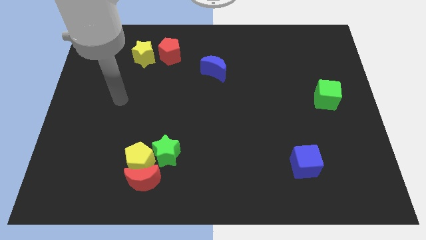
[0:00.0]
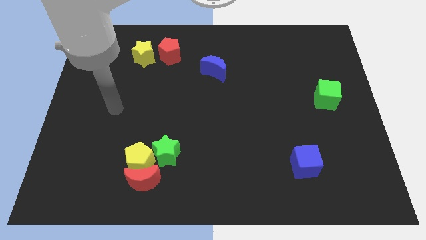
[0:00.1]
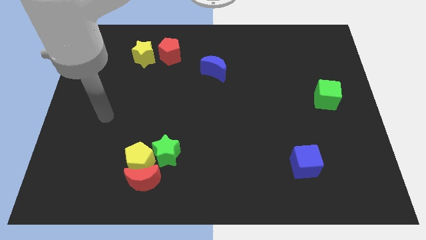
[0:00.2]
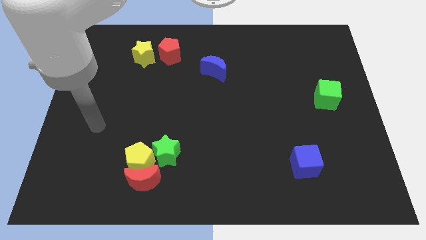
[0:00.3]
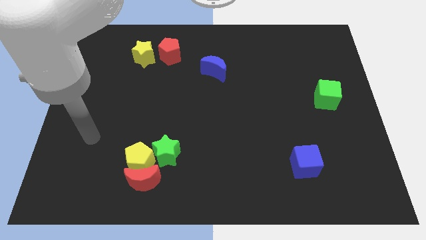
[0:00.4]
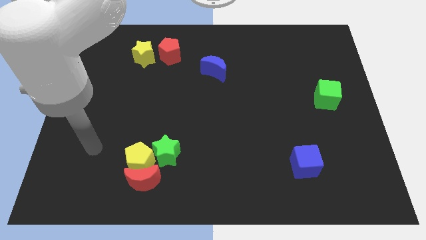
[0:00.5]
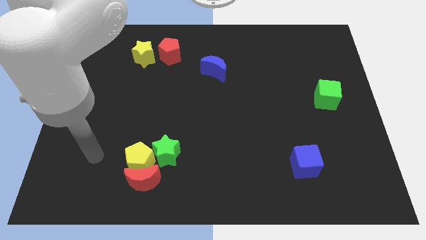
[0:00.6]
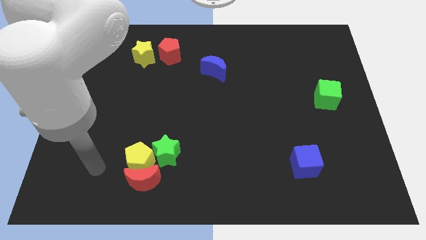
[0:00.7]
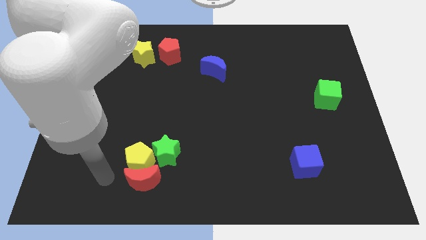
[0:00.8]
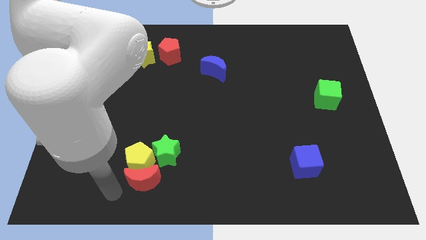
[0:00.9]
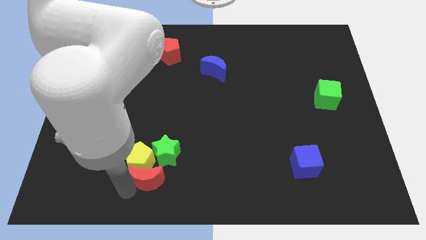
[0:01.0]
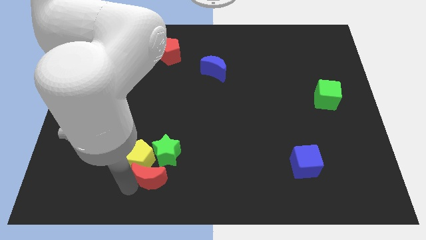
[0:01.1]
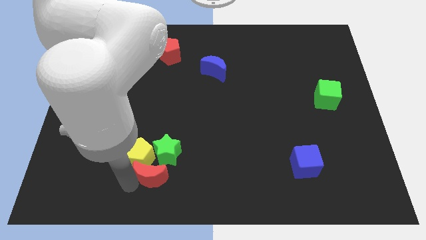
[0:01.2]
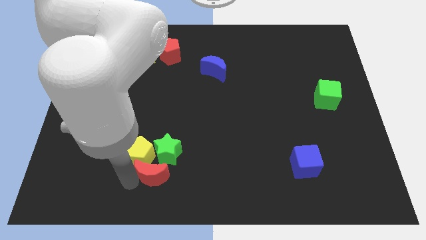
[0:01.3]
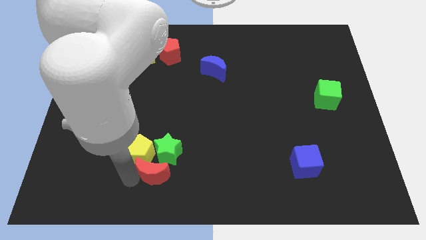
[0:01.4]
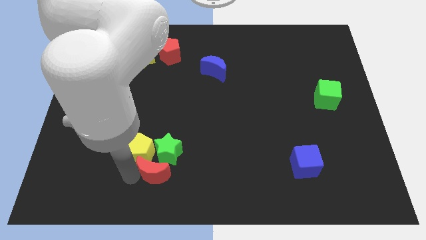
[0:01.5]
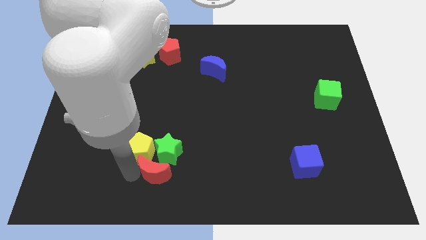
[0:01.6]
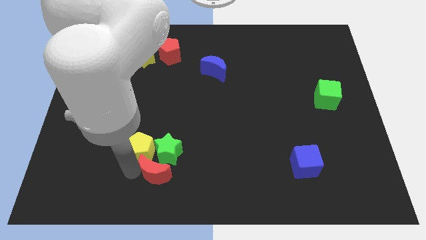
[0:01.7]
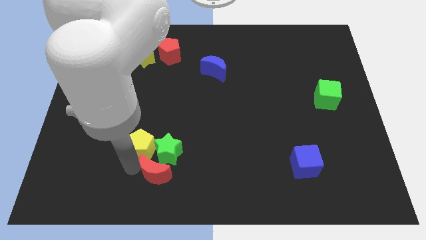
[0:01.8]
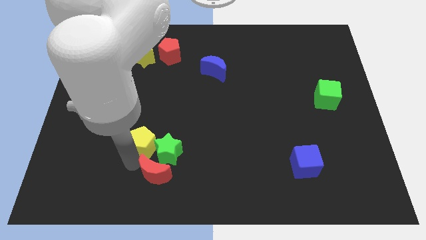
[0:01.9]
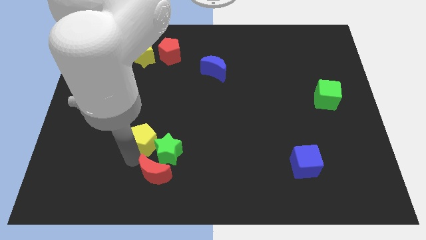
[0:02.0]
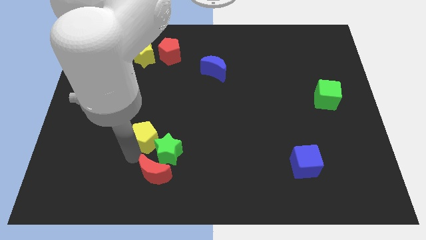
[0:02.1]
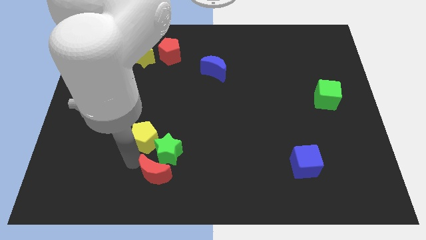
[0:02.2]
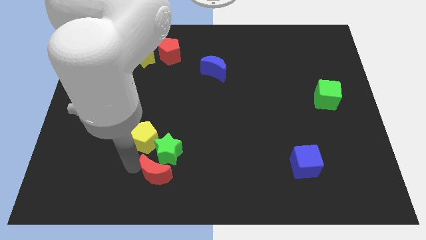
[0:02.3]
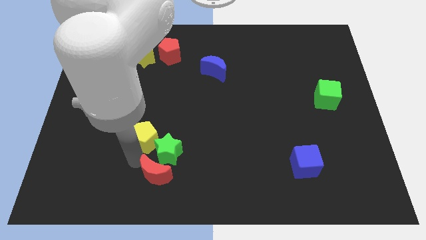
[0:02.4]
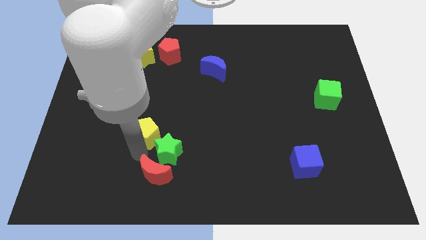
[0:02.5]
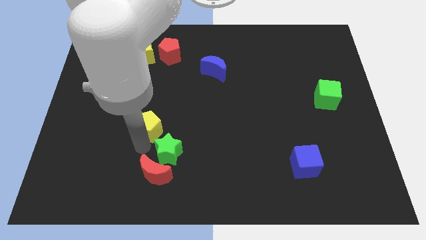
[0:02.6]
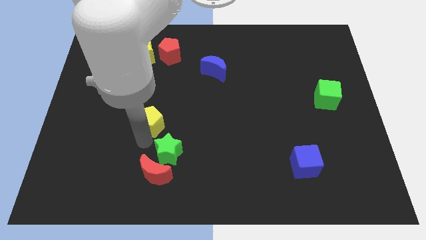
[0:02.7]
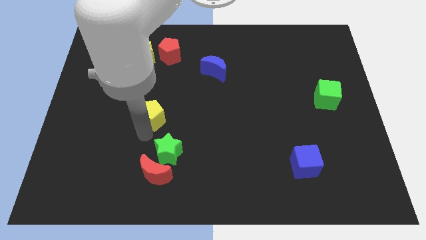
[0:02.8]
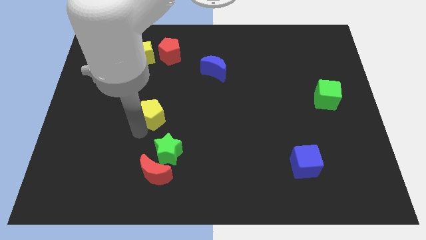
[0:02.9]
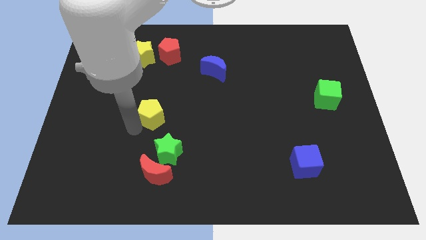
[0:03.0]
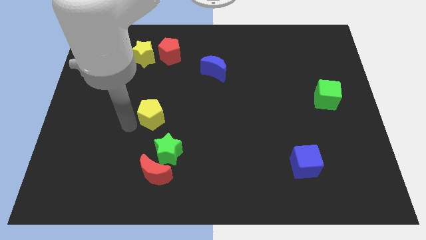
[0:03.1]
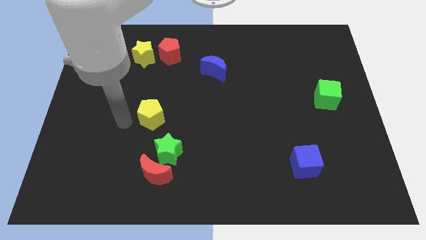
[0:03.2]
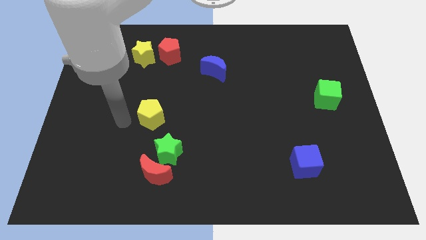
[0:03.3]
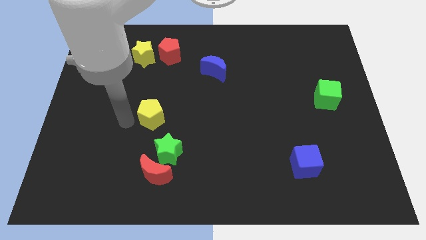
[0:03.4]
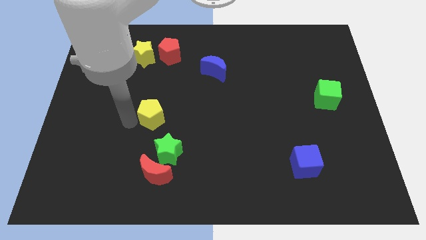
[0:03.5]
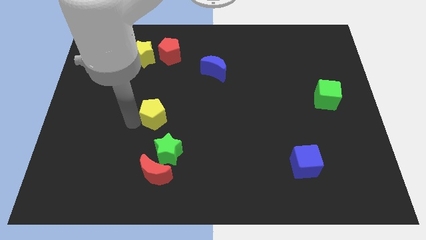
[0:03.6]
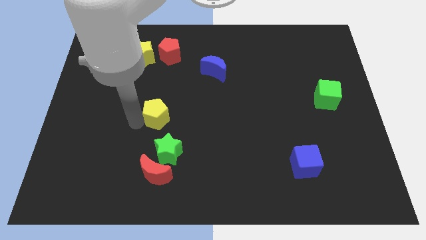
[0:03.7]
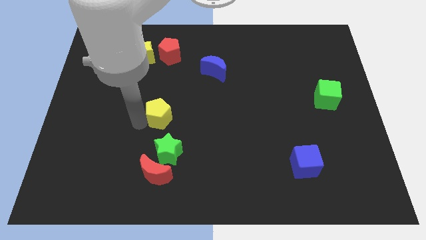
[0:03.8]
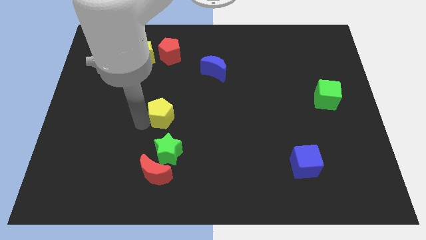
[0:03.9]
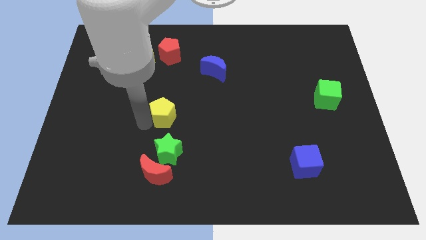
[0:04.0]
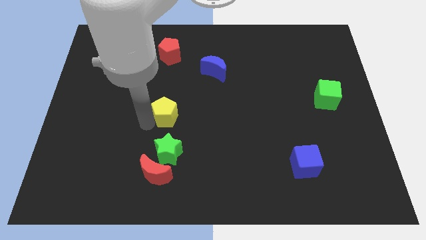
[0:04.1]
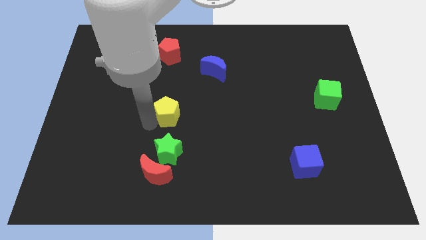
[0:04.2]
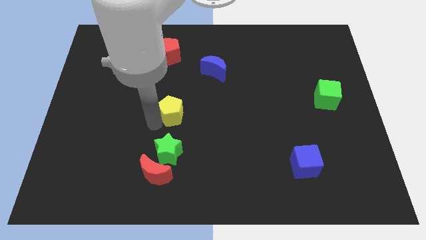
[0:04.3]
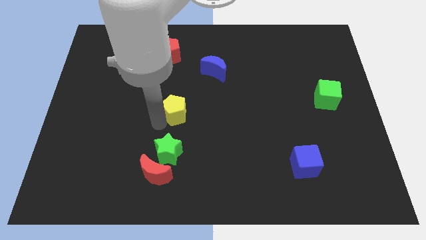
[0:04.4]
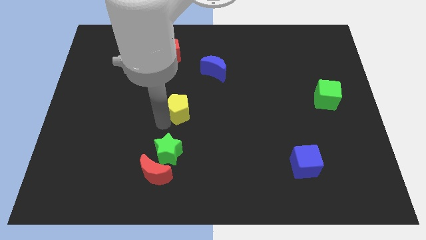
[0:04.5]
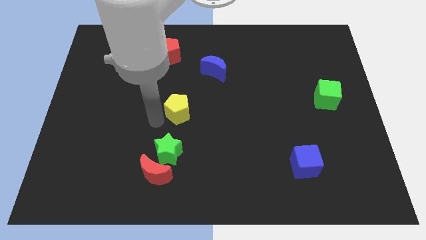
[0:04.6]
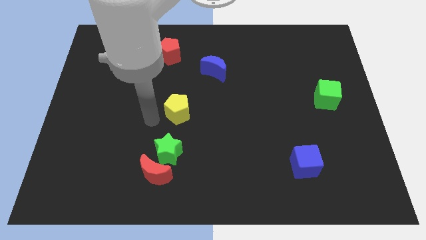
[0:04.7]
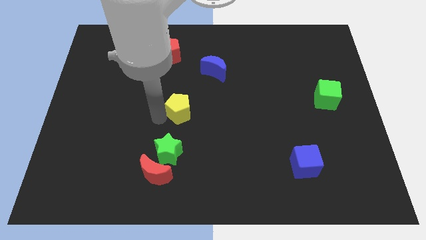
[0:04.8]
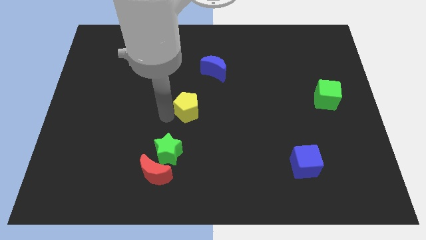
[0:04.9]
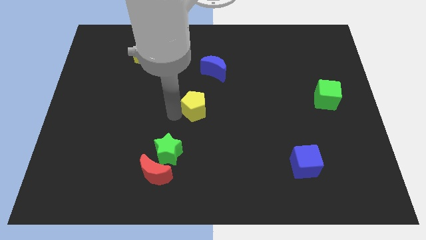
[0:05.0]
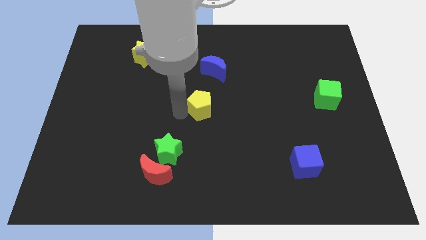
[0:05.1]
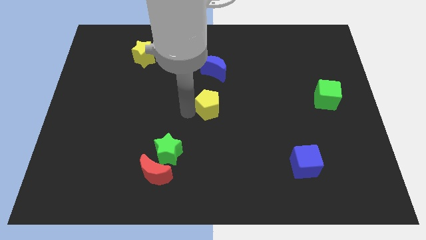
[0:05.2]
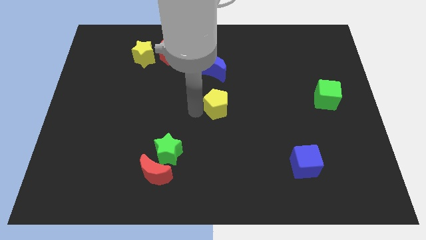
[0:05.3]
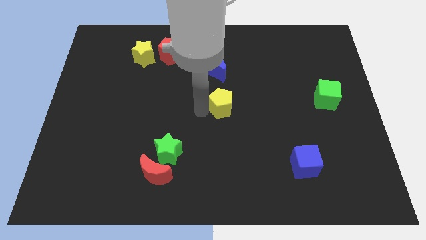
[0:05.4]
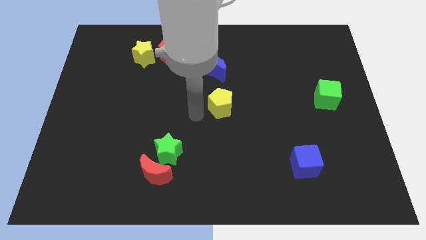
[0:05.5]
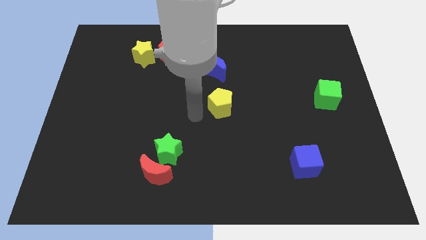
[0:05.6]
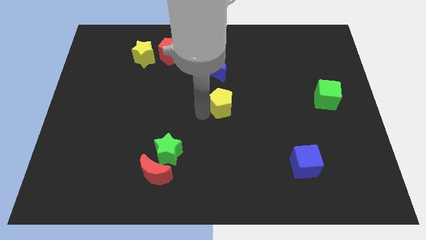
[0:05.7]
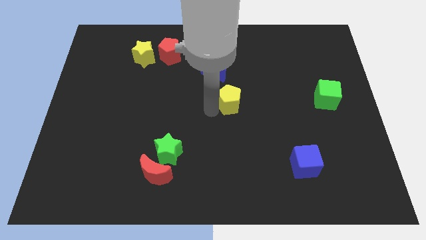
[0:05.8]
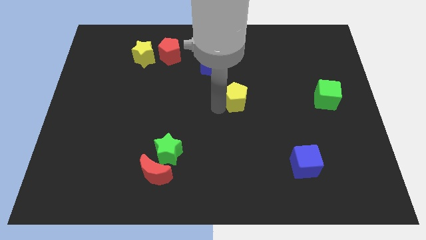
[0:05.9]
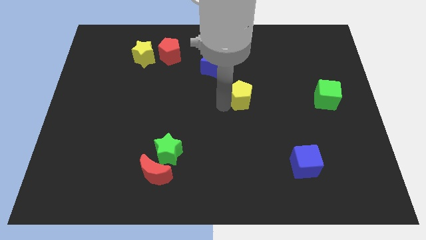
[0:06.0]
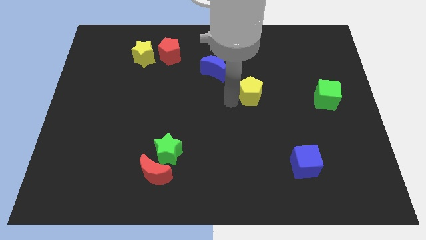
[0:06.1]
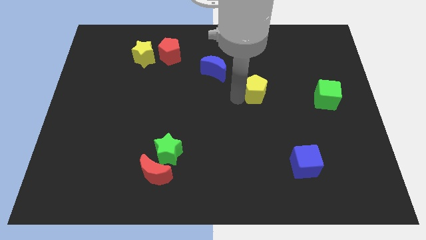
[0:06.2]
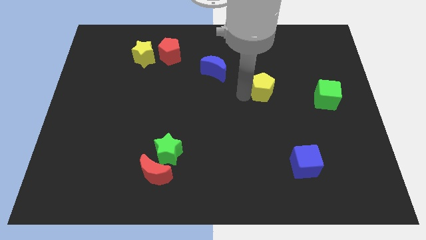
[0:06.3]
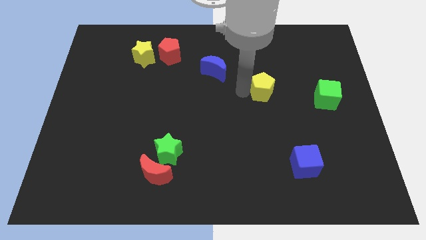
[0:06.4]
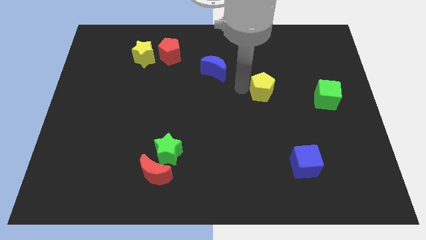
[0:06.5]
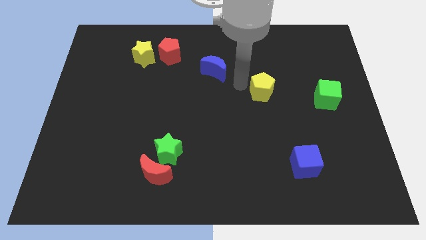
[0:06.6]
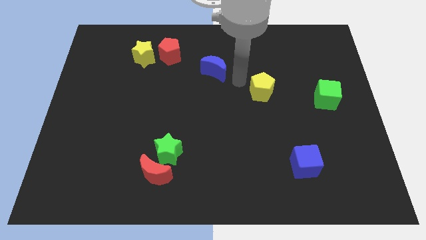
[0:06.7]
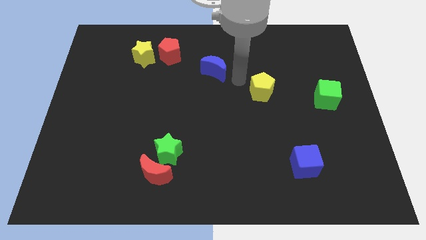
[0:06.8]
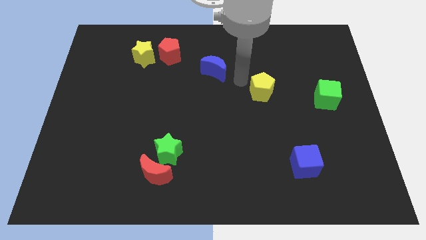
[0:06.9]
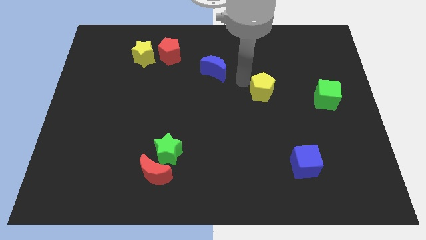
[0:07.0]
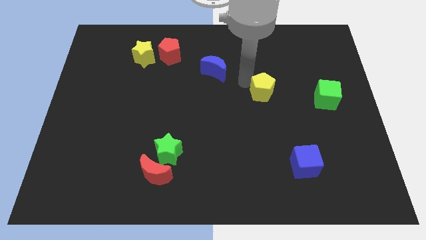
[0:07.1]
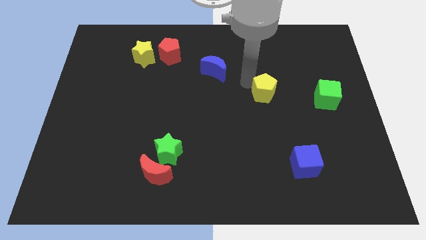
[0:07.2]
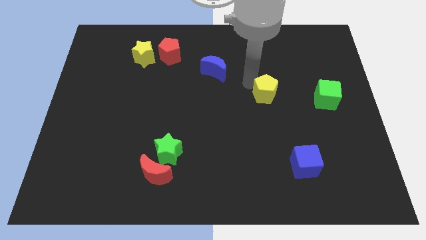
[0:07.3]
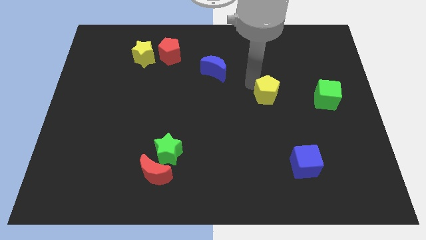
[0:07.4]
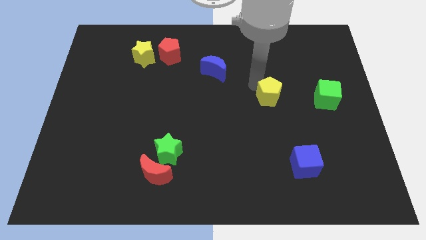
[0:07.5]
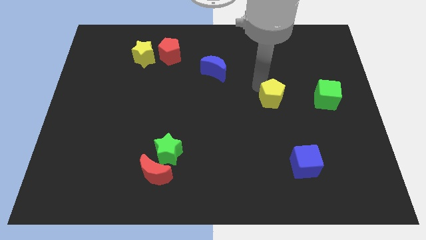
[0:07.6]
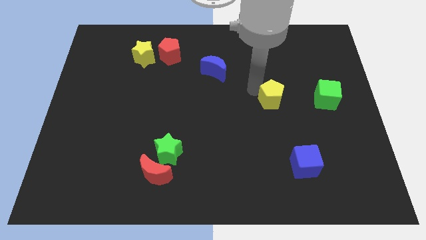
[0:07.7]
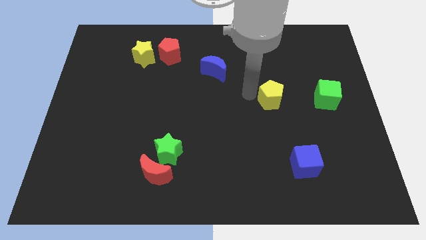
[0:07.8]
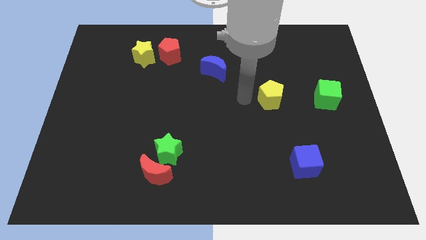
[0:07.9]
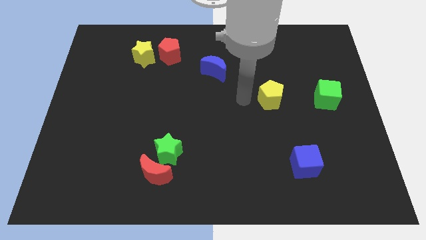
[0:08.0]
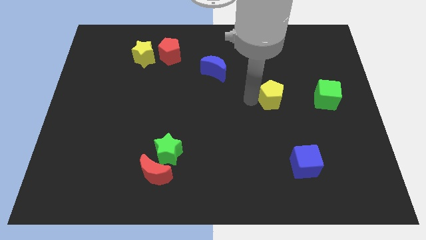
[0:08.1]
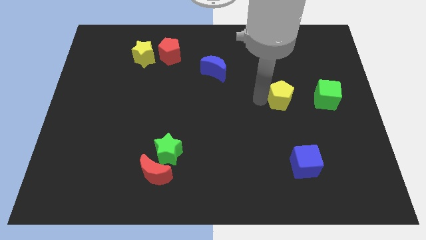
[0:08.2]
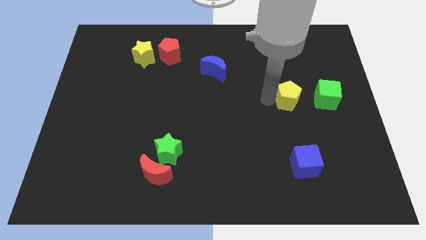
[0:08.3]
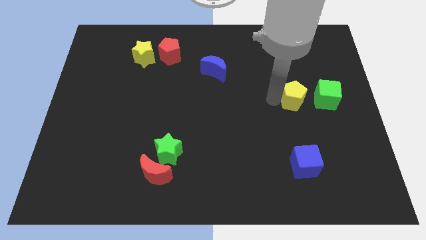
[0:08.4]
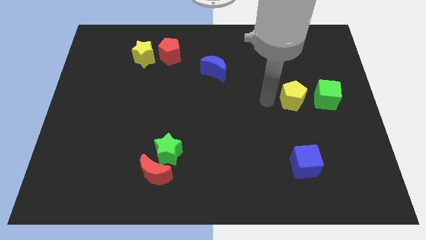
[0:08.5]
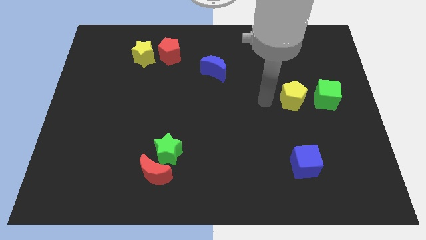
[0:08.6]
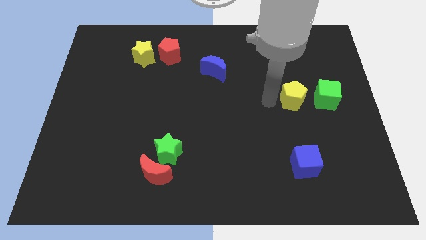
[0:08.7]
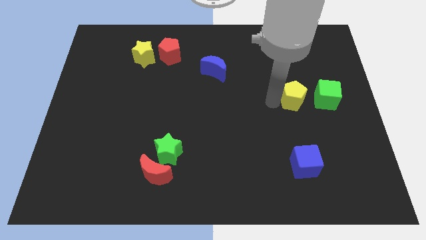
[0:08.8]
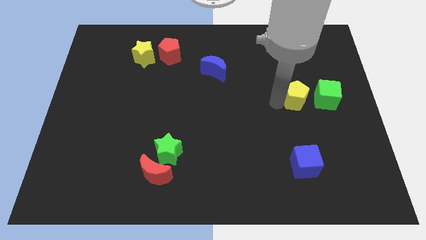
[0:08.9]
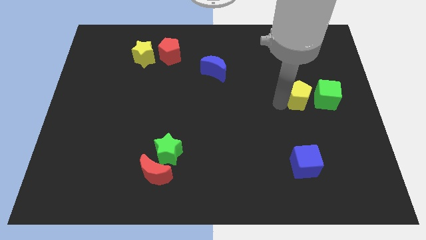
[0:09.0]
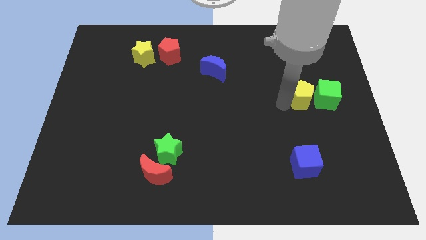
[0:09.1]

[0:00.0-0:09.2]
move the yellow pentagon towards the green cube
